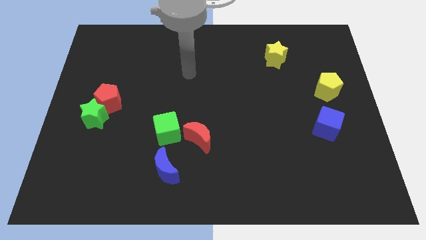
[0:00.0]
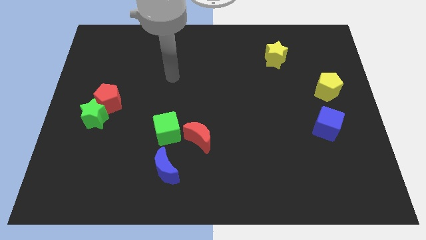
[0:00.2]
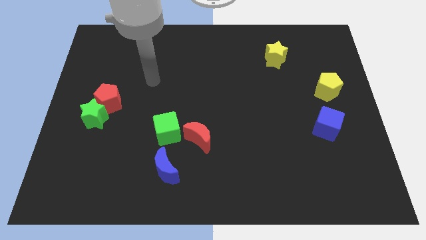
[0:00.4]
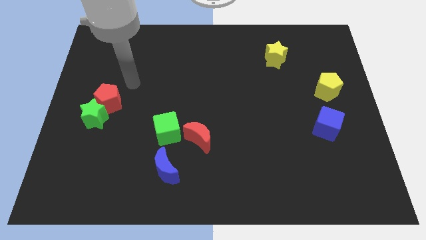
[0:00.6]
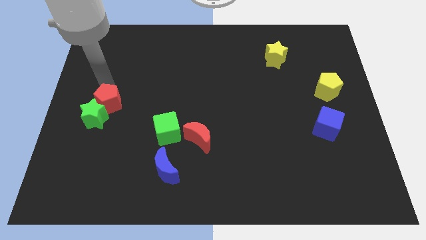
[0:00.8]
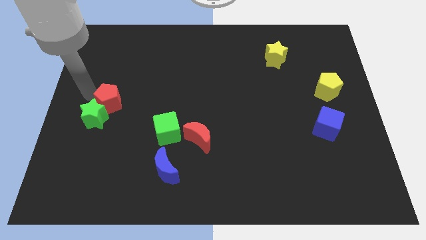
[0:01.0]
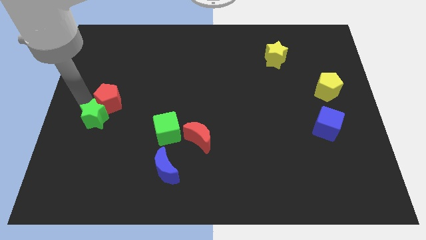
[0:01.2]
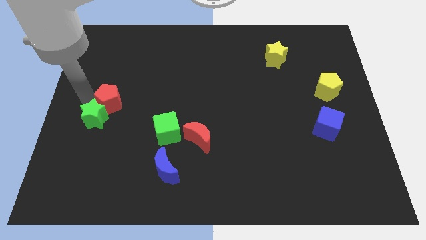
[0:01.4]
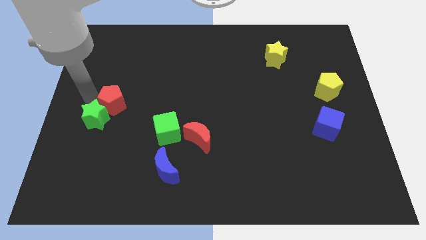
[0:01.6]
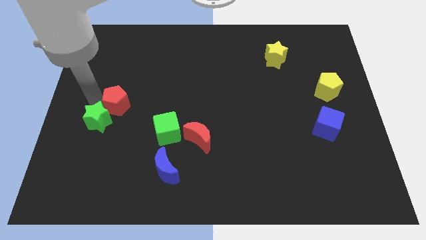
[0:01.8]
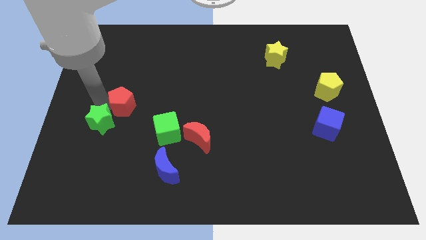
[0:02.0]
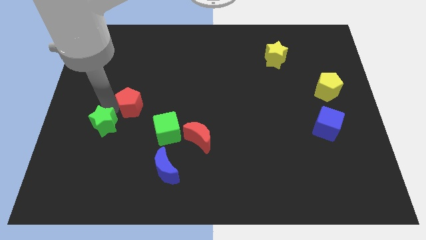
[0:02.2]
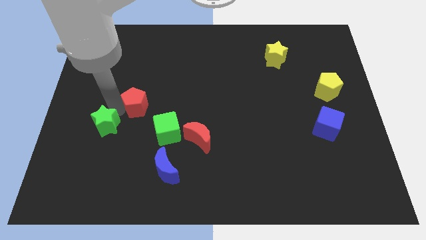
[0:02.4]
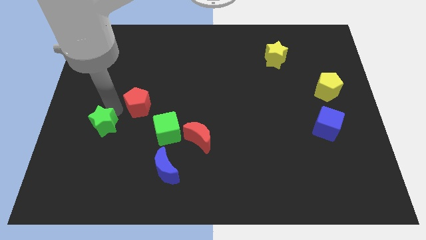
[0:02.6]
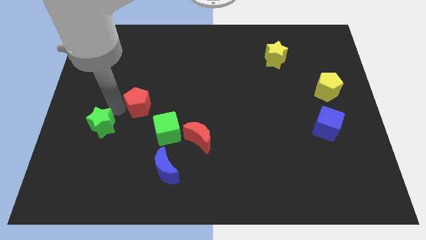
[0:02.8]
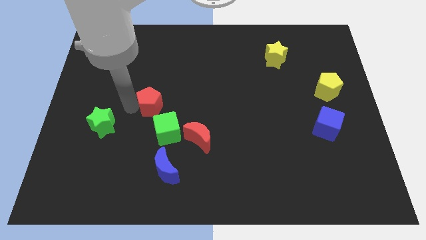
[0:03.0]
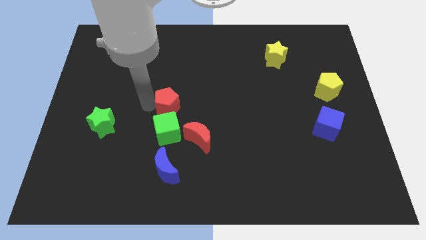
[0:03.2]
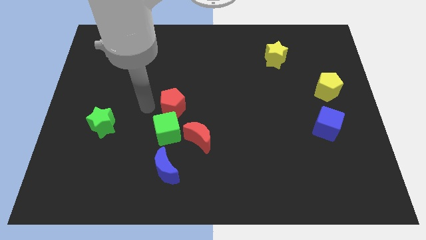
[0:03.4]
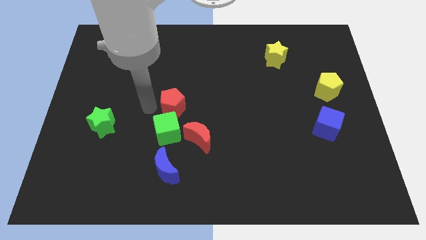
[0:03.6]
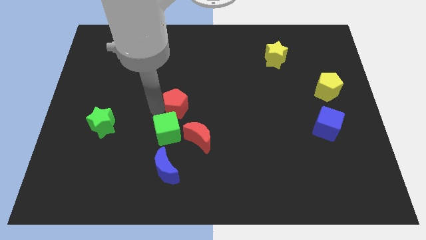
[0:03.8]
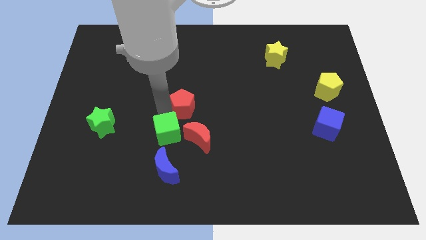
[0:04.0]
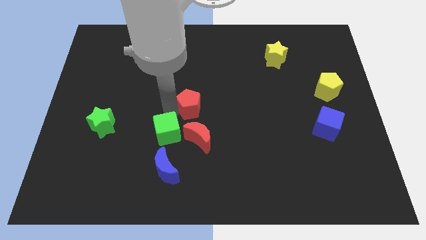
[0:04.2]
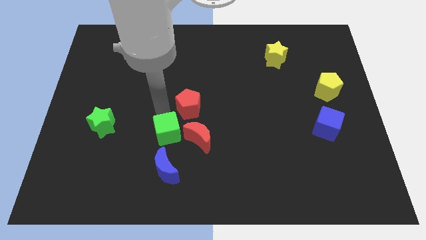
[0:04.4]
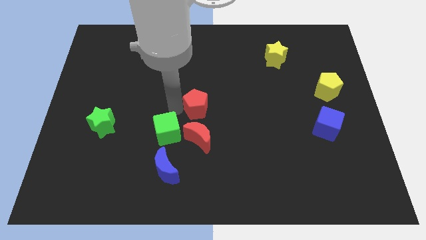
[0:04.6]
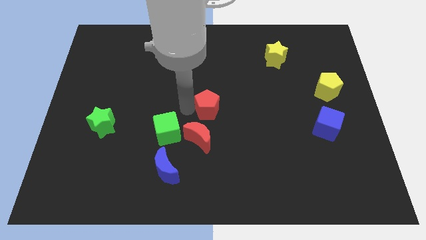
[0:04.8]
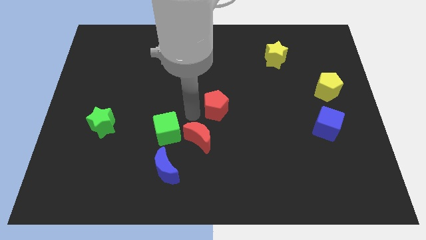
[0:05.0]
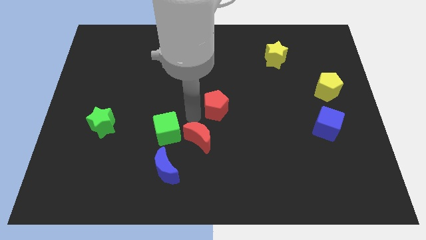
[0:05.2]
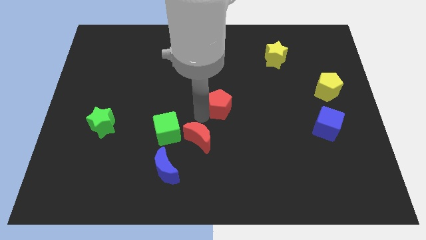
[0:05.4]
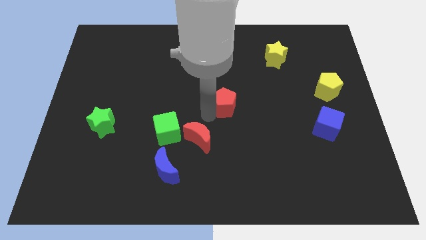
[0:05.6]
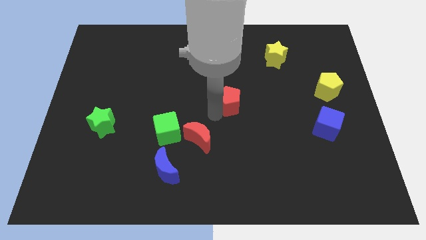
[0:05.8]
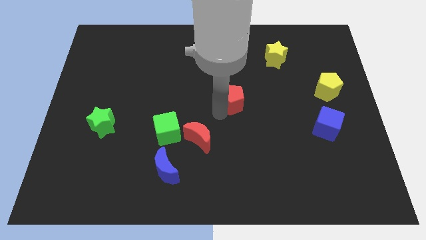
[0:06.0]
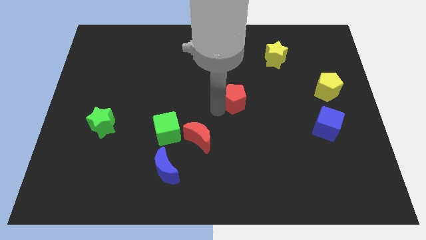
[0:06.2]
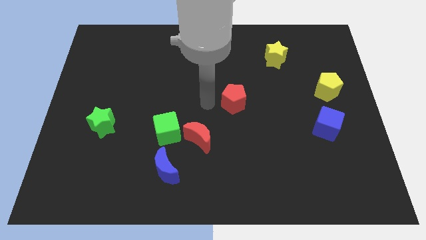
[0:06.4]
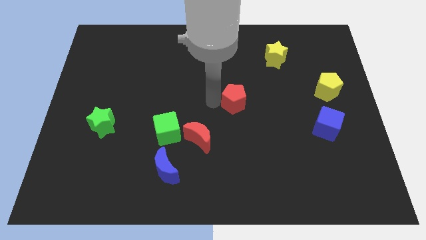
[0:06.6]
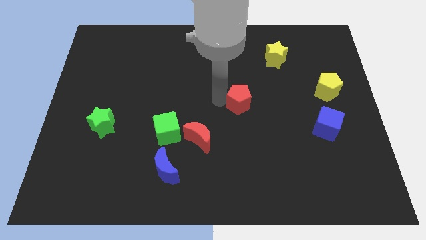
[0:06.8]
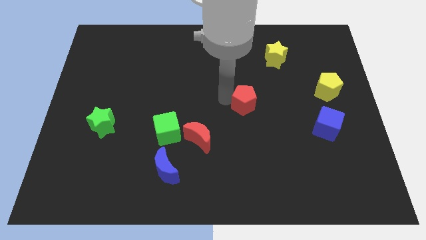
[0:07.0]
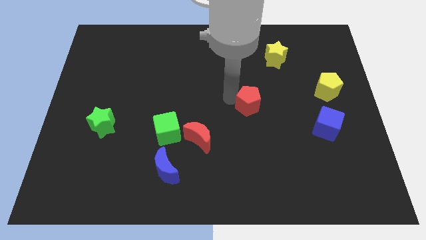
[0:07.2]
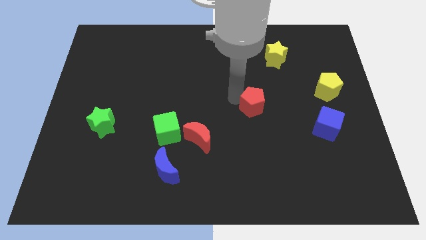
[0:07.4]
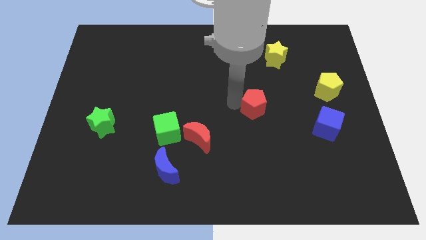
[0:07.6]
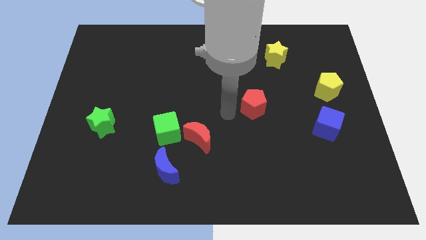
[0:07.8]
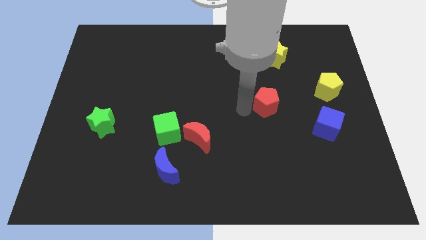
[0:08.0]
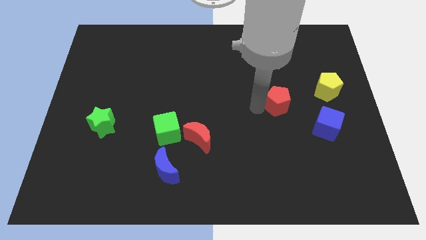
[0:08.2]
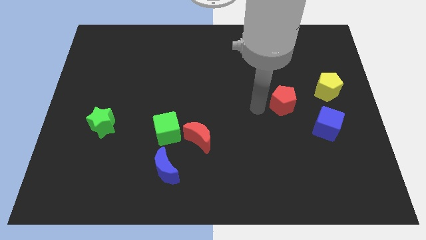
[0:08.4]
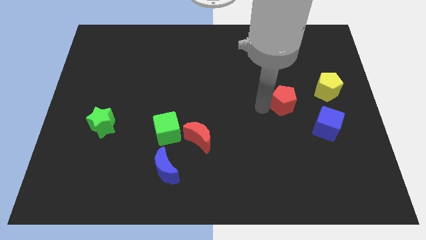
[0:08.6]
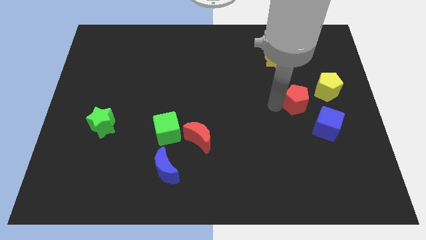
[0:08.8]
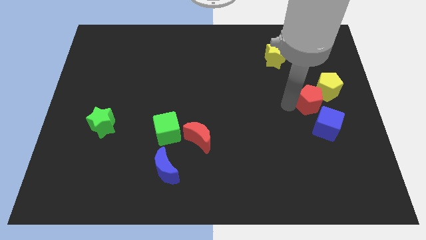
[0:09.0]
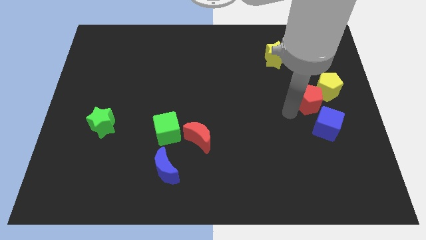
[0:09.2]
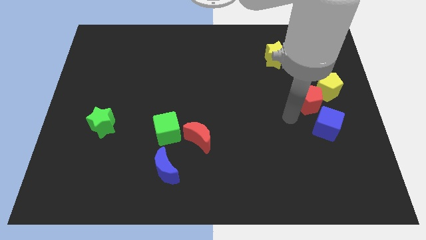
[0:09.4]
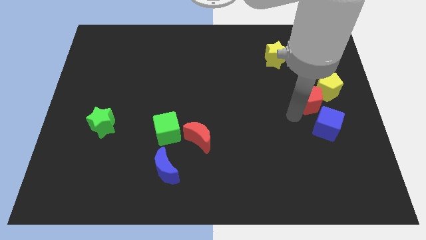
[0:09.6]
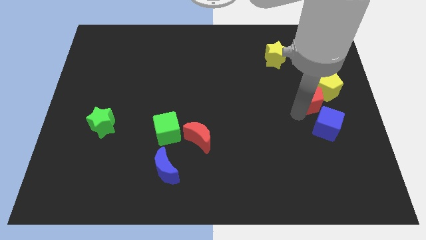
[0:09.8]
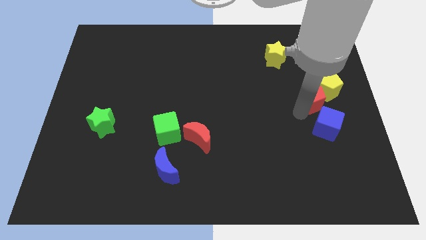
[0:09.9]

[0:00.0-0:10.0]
push the red pentagon towards the yellow pentagon

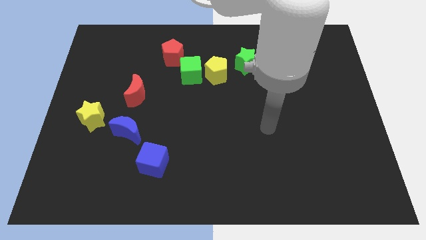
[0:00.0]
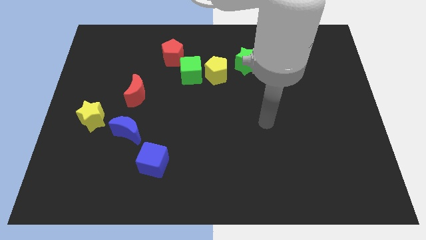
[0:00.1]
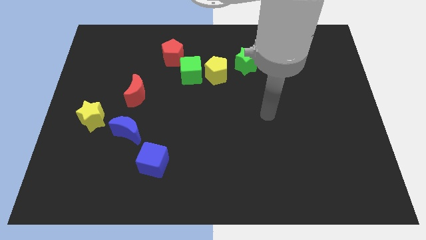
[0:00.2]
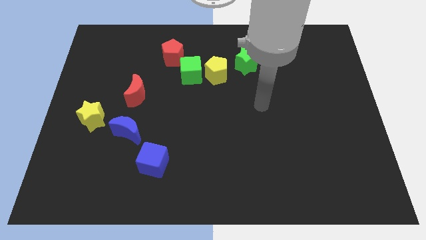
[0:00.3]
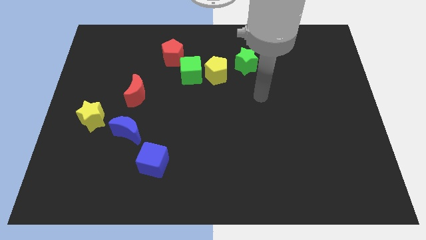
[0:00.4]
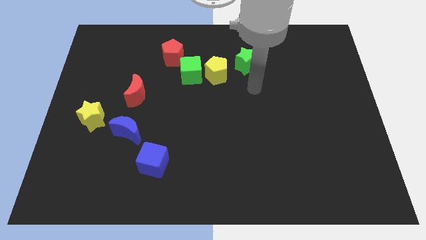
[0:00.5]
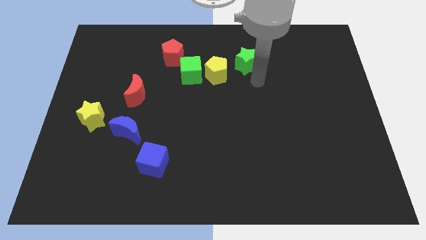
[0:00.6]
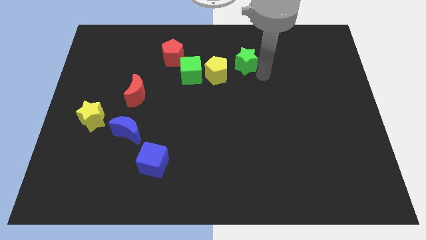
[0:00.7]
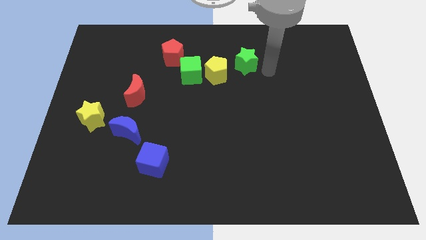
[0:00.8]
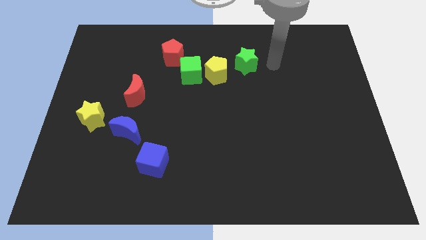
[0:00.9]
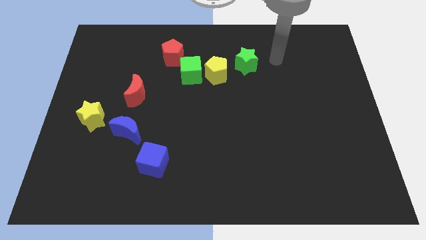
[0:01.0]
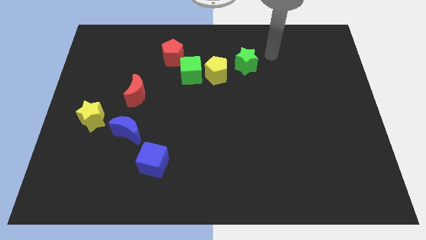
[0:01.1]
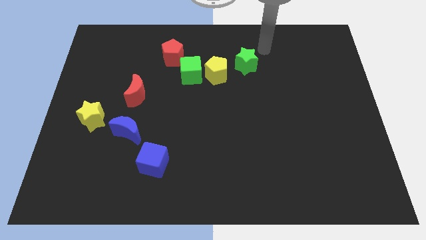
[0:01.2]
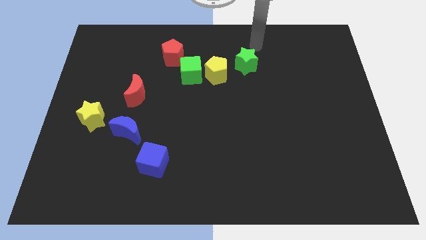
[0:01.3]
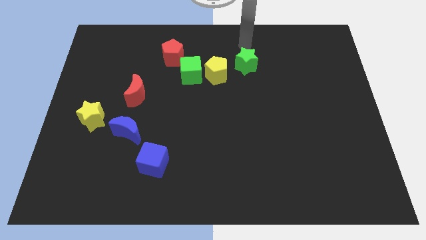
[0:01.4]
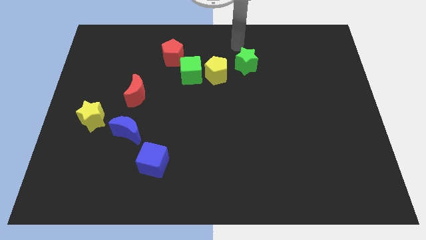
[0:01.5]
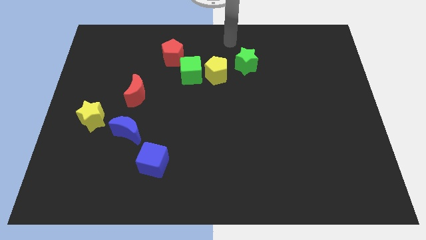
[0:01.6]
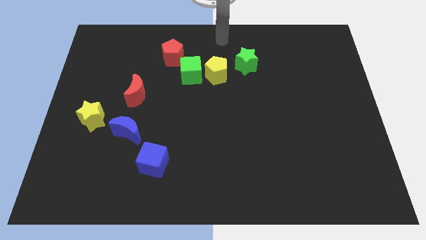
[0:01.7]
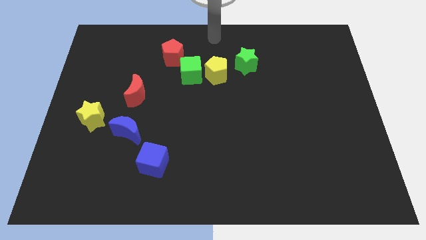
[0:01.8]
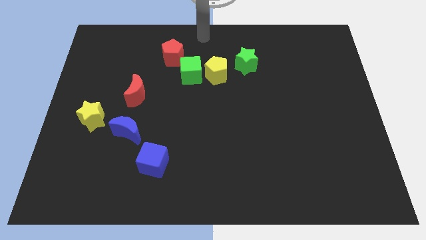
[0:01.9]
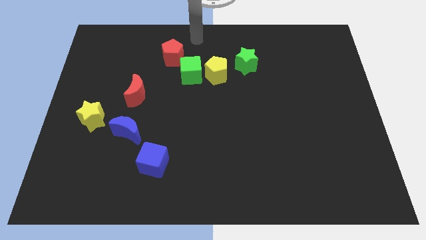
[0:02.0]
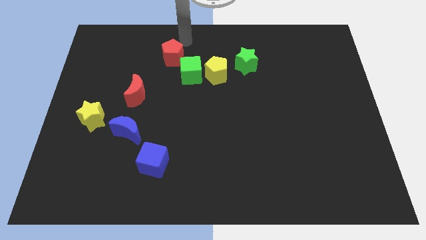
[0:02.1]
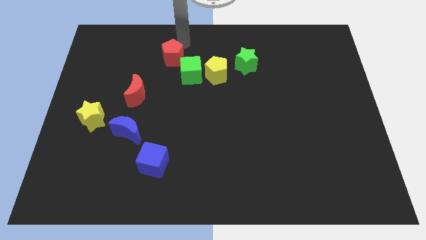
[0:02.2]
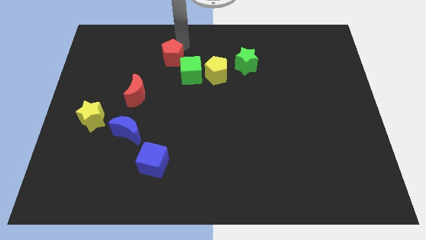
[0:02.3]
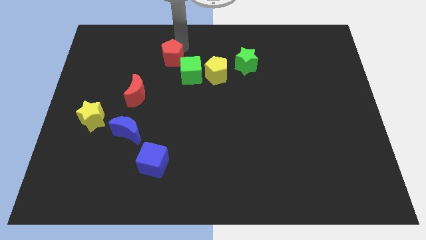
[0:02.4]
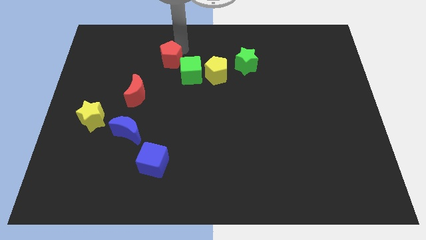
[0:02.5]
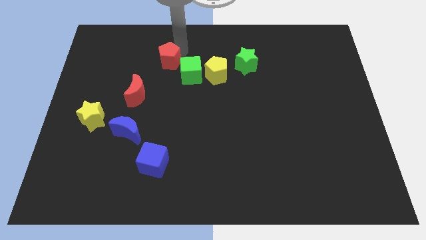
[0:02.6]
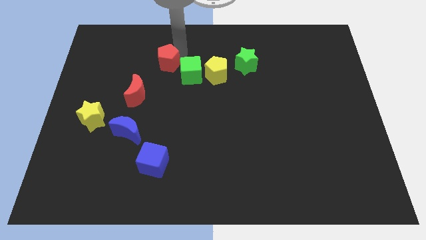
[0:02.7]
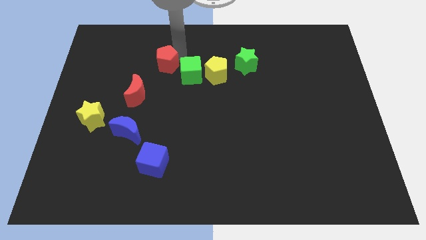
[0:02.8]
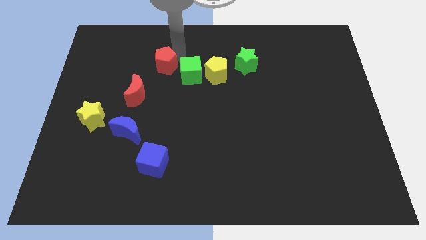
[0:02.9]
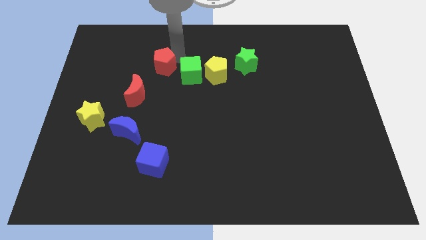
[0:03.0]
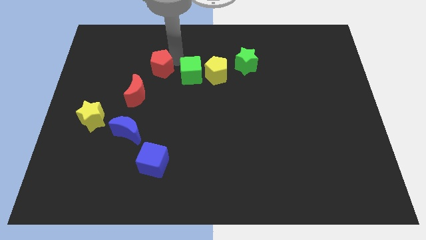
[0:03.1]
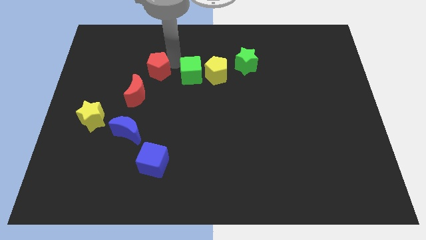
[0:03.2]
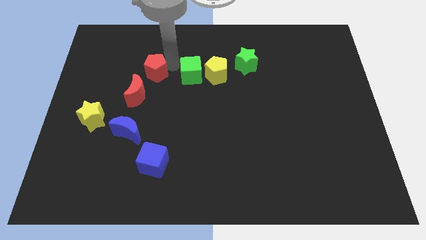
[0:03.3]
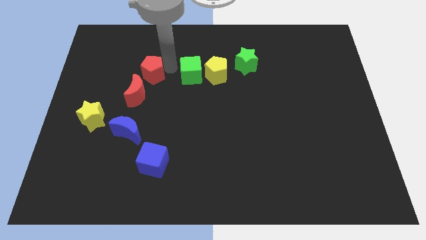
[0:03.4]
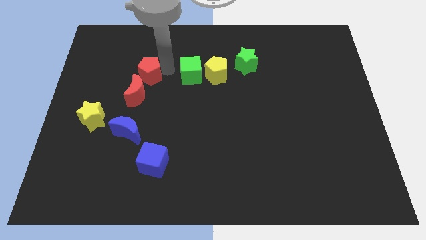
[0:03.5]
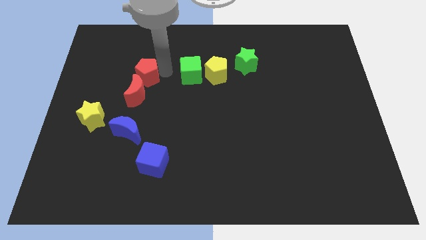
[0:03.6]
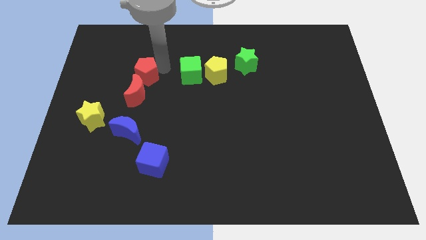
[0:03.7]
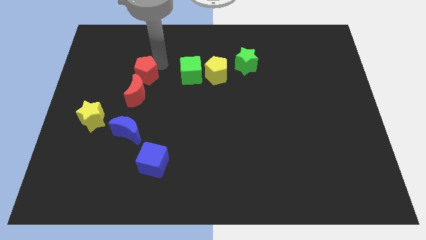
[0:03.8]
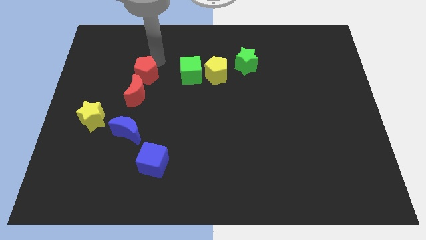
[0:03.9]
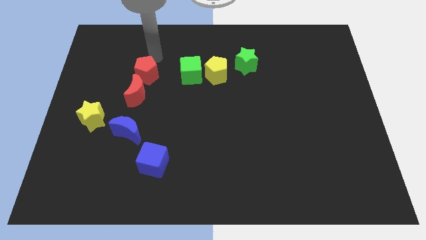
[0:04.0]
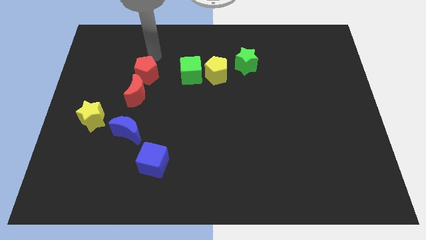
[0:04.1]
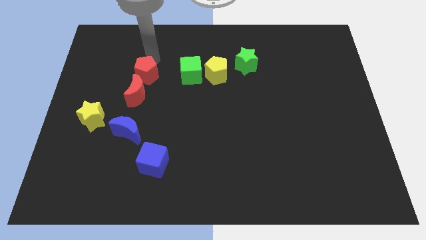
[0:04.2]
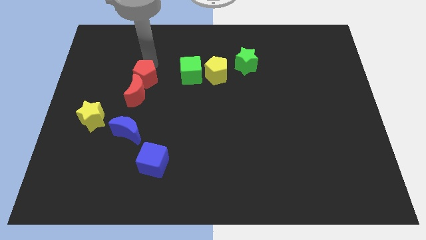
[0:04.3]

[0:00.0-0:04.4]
slide the red pentagon to the red moon
